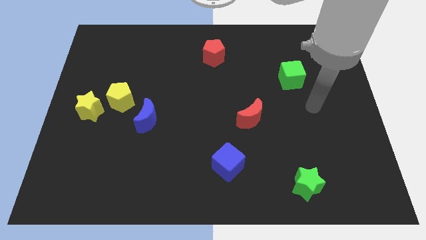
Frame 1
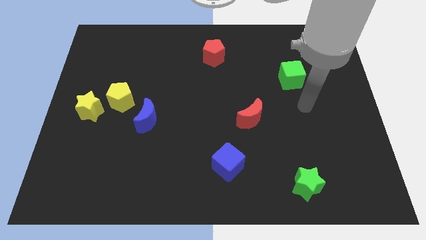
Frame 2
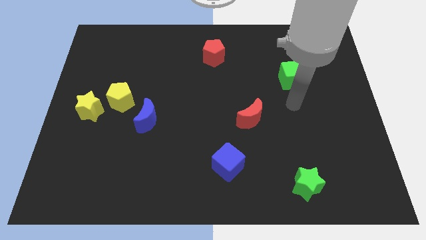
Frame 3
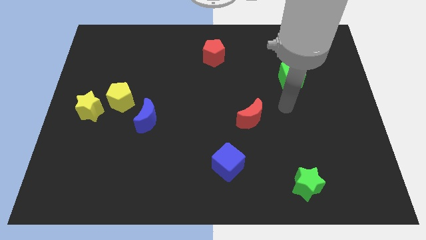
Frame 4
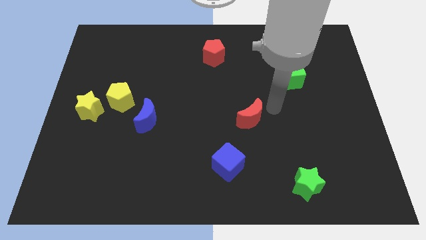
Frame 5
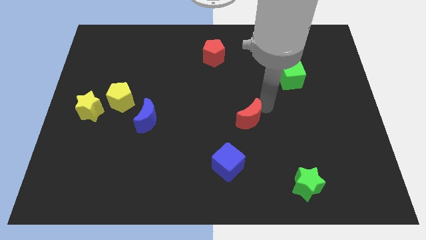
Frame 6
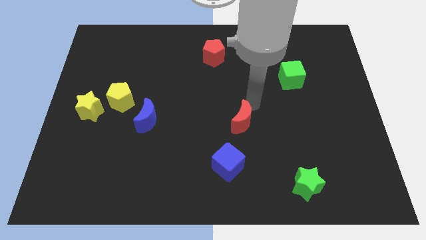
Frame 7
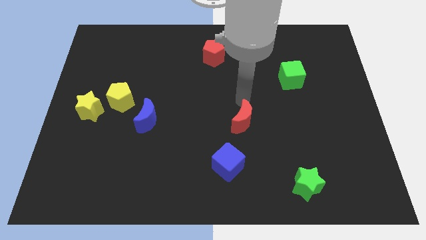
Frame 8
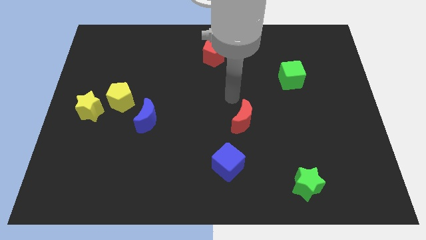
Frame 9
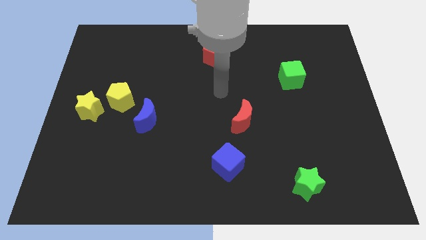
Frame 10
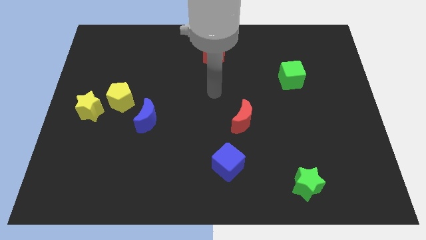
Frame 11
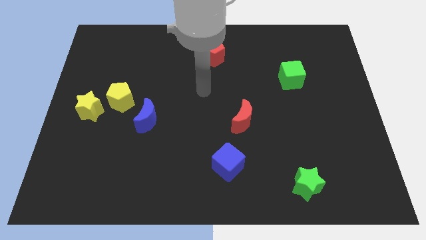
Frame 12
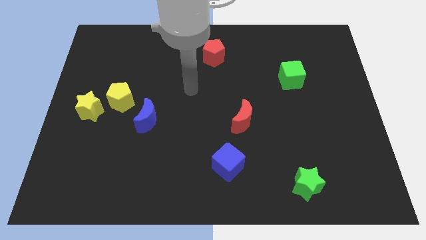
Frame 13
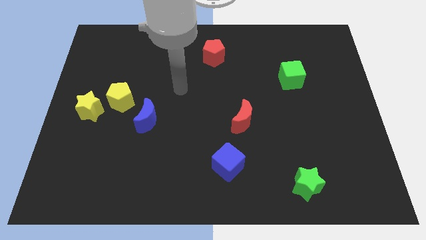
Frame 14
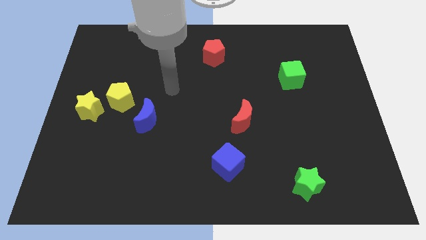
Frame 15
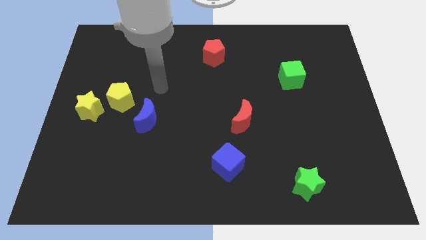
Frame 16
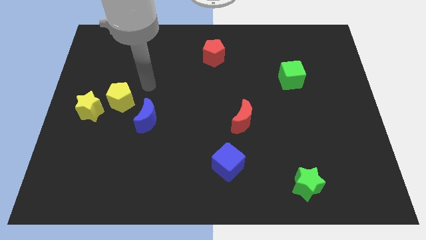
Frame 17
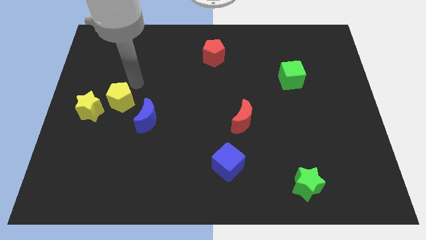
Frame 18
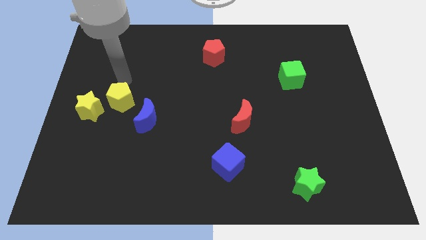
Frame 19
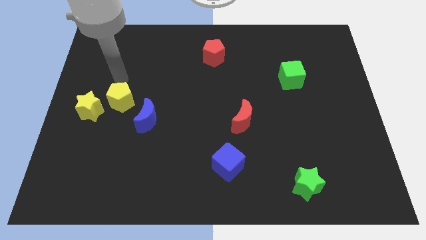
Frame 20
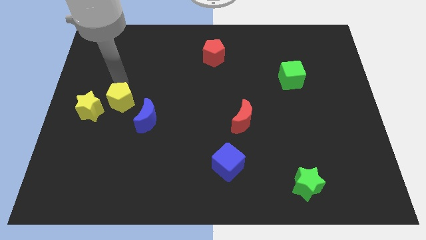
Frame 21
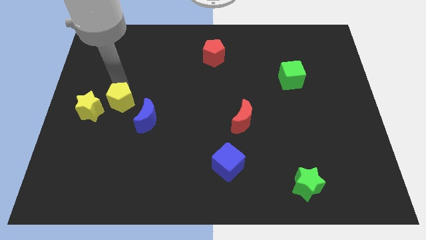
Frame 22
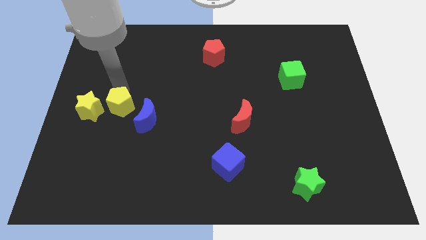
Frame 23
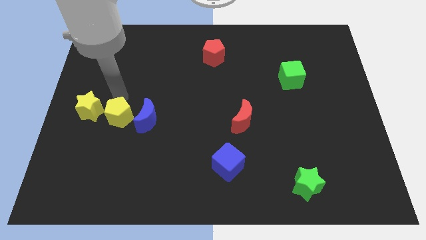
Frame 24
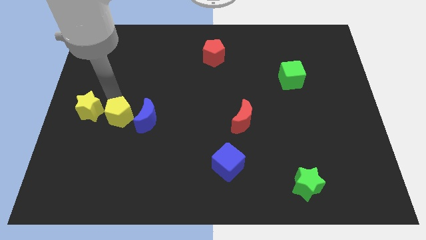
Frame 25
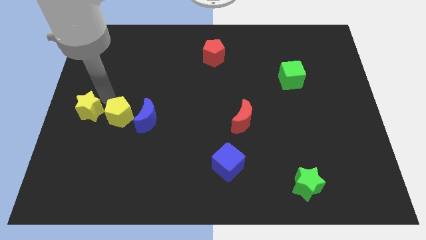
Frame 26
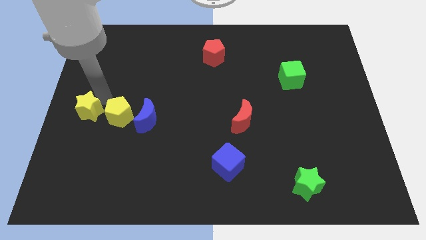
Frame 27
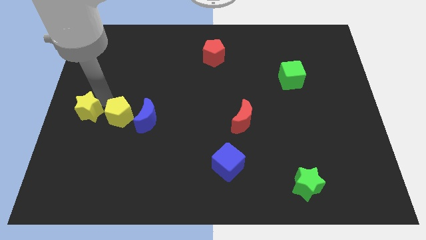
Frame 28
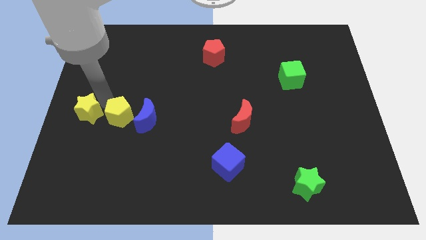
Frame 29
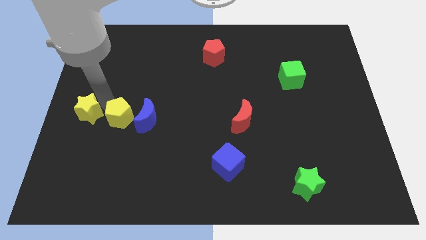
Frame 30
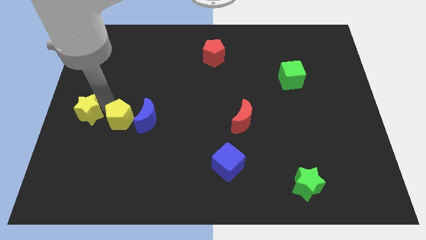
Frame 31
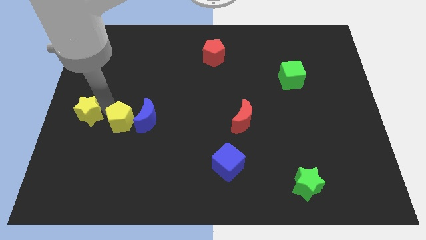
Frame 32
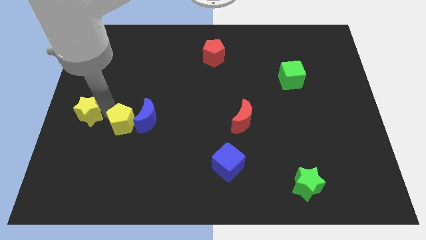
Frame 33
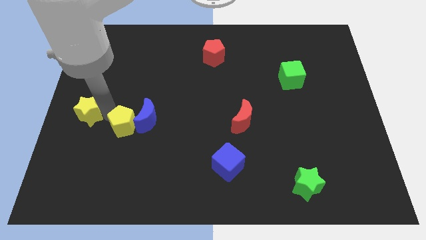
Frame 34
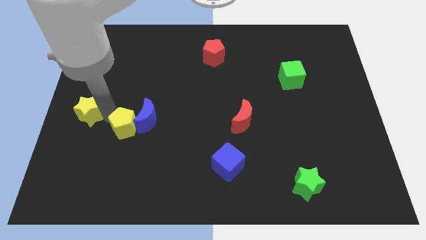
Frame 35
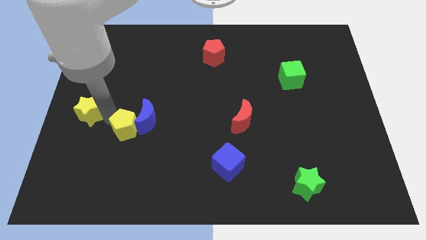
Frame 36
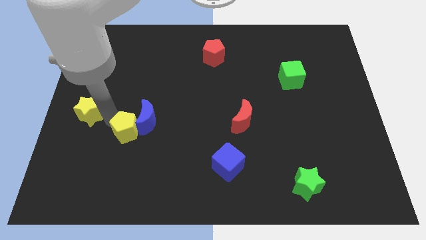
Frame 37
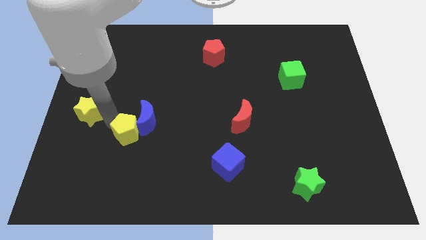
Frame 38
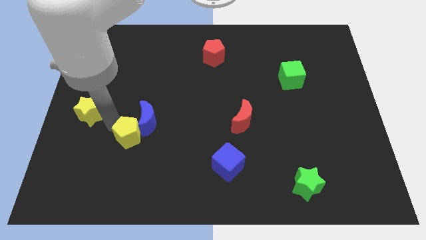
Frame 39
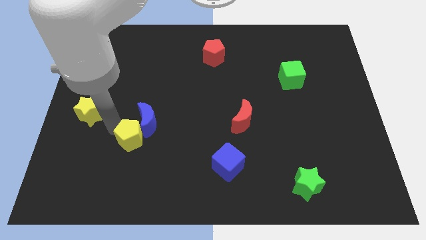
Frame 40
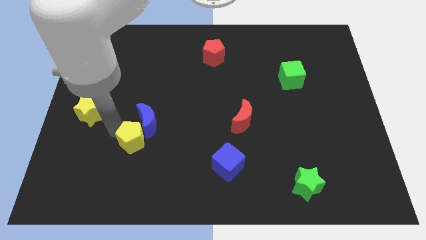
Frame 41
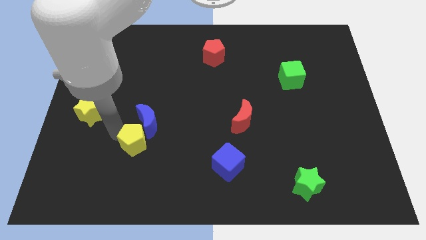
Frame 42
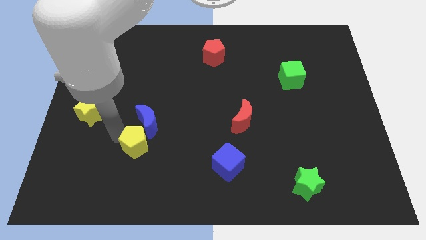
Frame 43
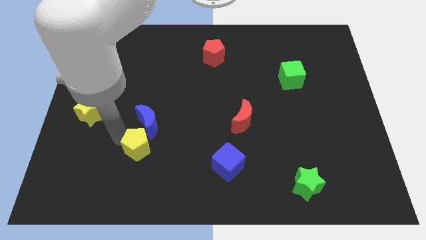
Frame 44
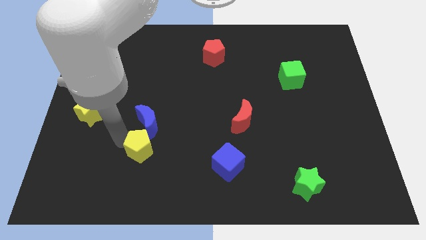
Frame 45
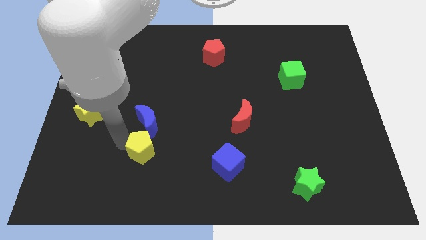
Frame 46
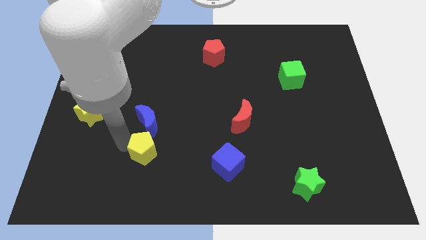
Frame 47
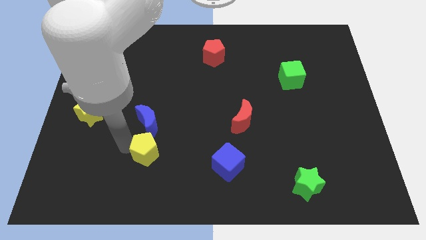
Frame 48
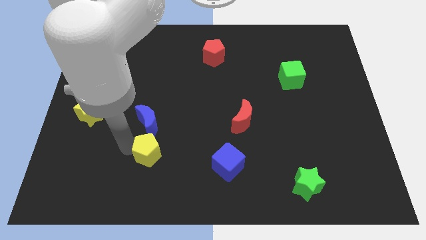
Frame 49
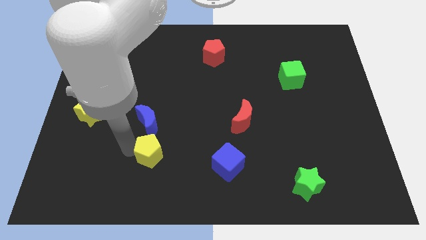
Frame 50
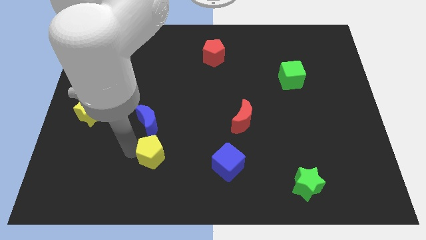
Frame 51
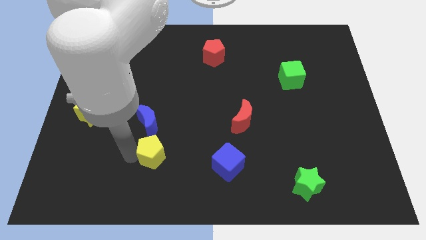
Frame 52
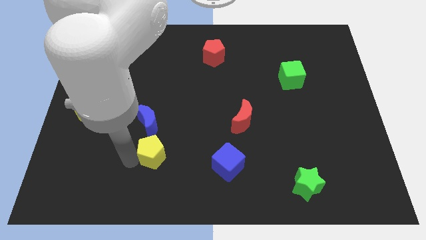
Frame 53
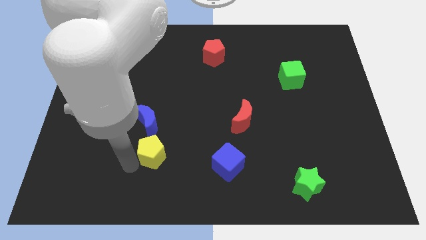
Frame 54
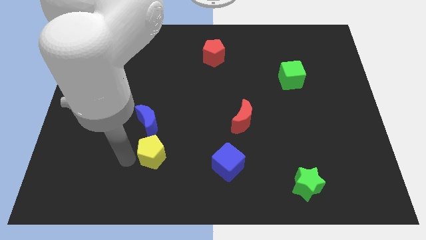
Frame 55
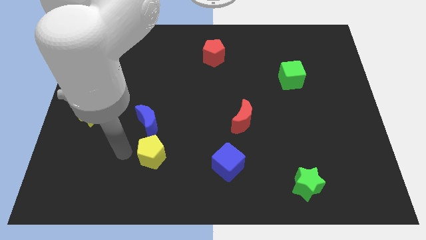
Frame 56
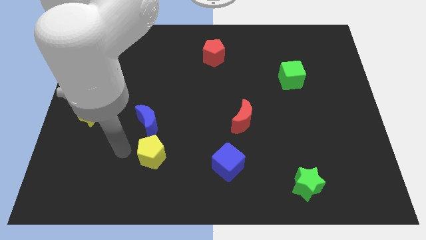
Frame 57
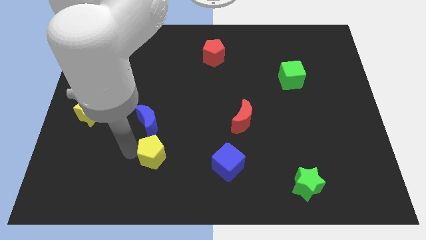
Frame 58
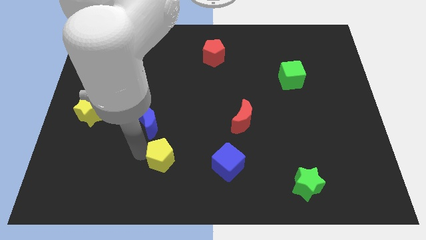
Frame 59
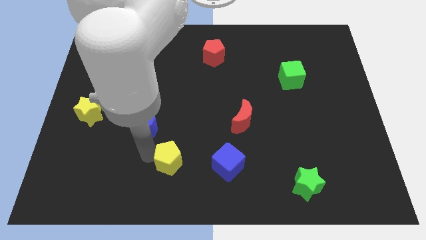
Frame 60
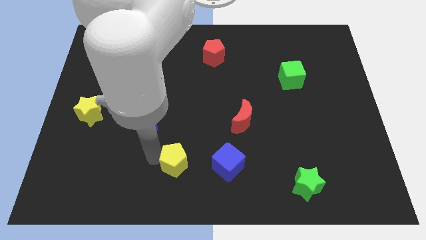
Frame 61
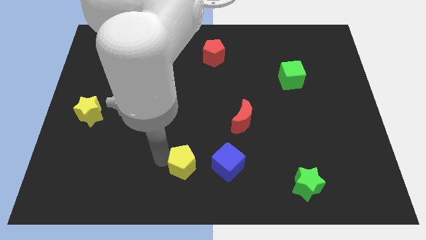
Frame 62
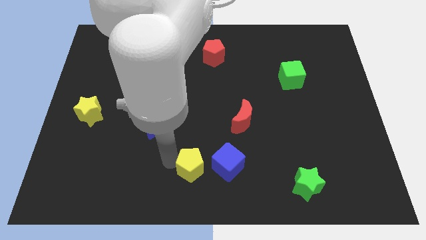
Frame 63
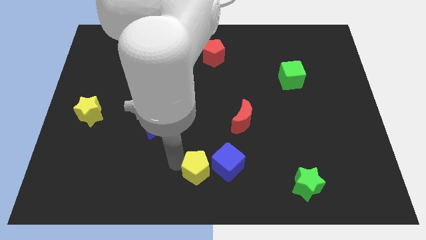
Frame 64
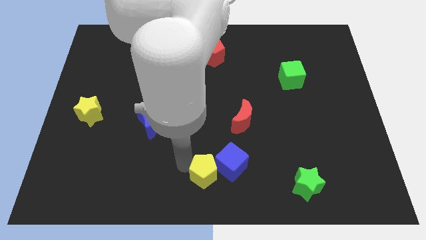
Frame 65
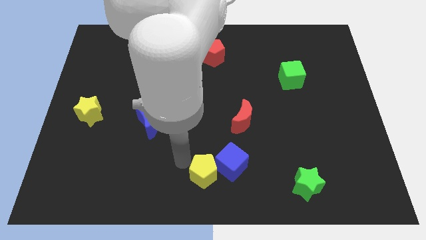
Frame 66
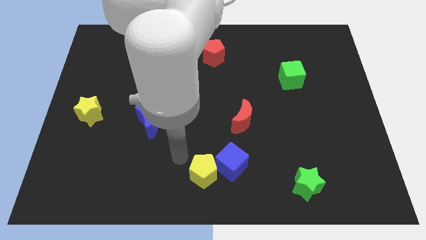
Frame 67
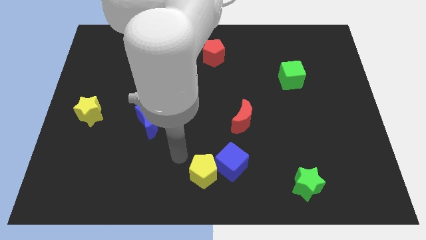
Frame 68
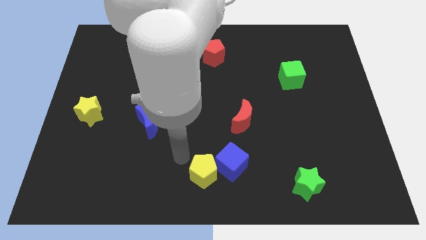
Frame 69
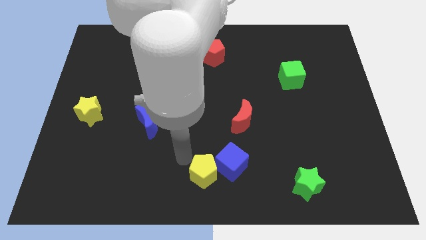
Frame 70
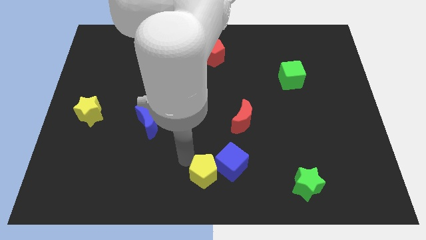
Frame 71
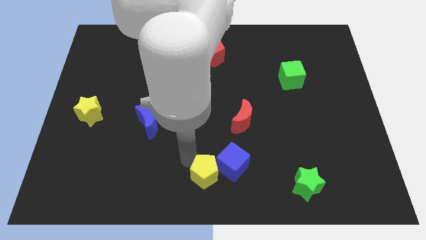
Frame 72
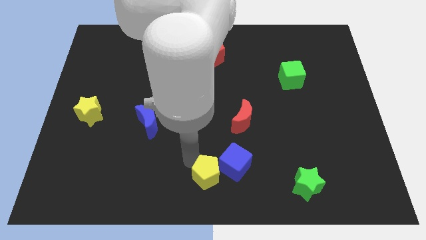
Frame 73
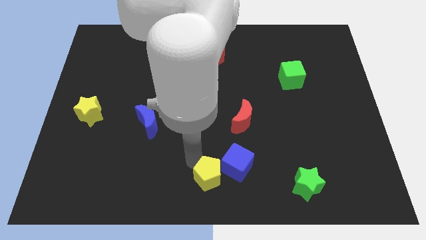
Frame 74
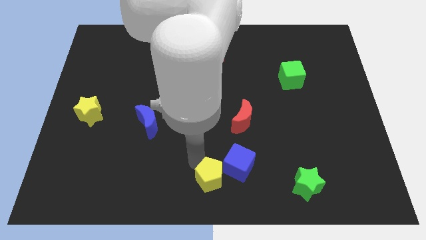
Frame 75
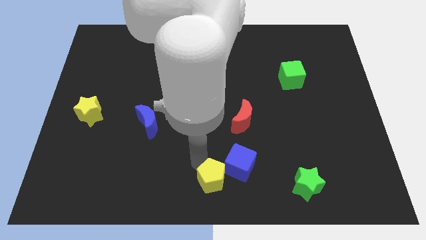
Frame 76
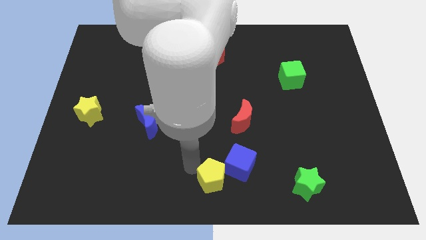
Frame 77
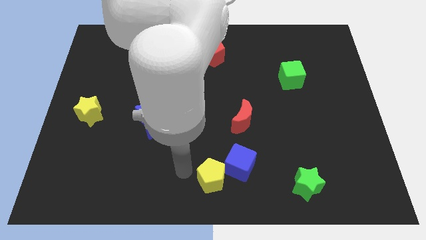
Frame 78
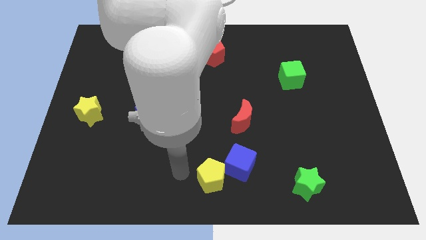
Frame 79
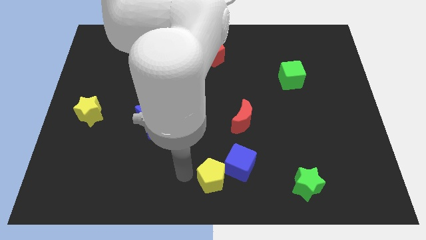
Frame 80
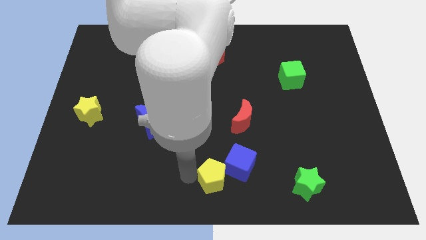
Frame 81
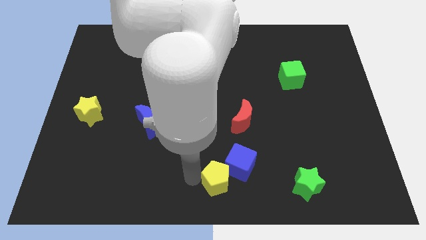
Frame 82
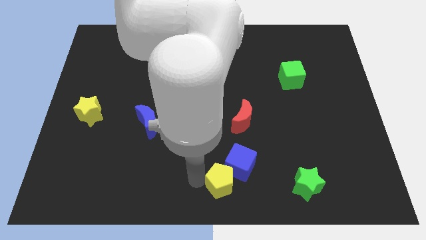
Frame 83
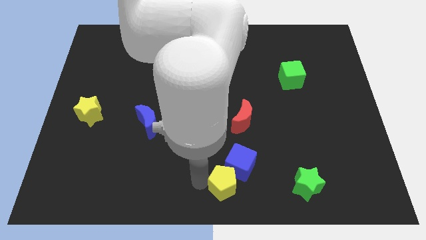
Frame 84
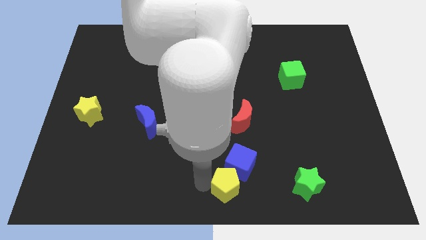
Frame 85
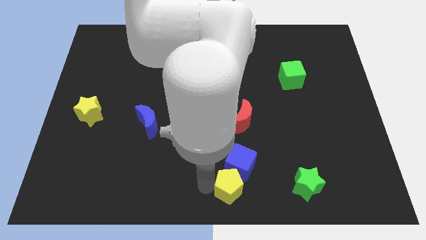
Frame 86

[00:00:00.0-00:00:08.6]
slide the yellow pentagon left of the green star
